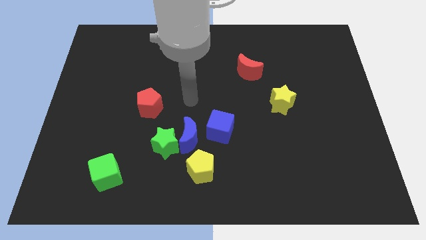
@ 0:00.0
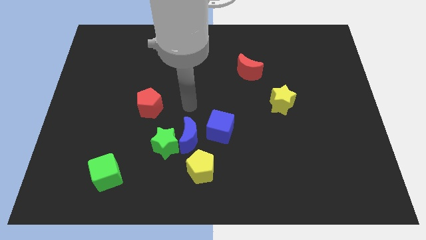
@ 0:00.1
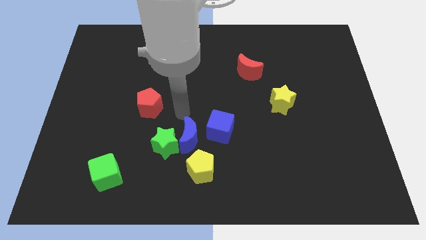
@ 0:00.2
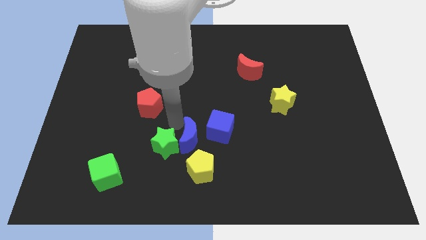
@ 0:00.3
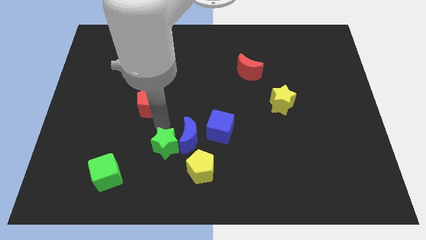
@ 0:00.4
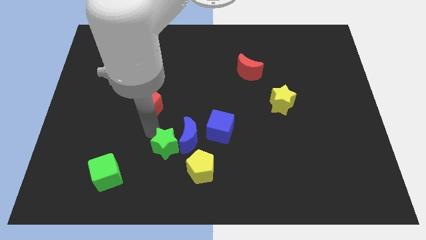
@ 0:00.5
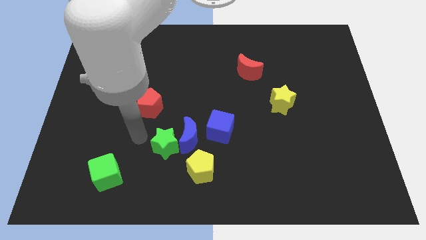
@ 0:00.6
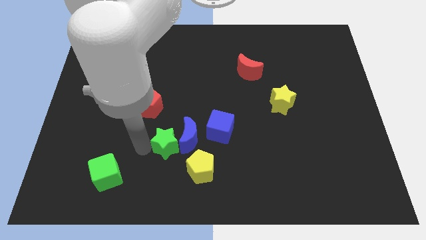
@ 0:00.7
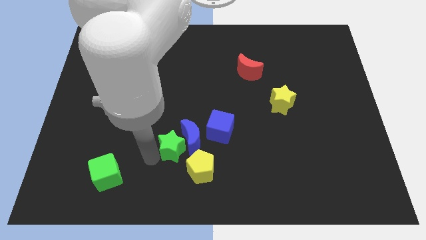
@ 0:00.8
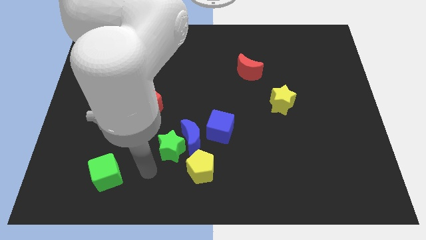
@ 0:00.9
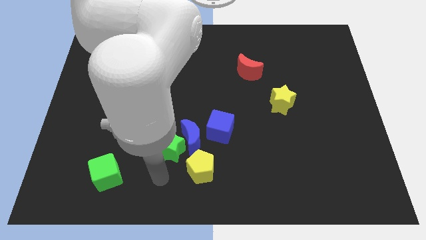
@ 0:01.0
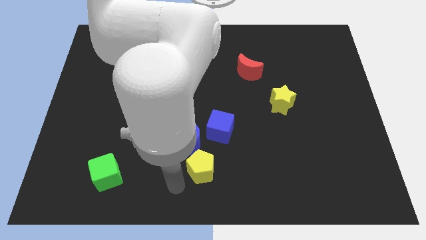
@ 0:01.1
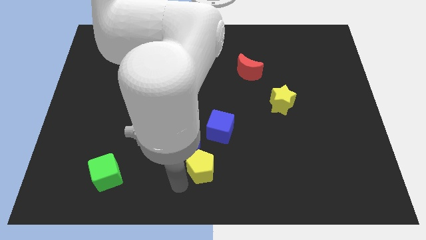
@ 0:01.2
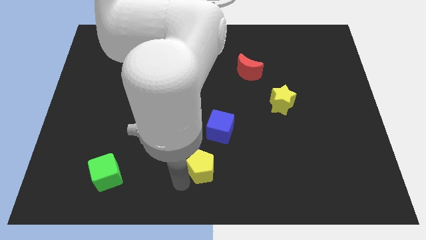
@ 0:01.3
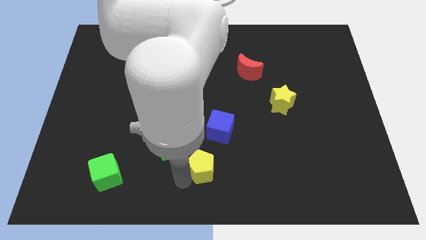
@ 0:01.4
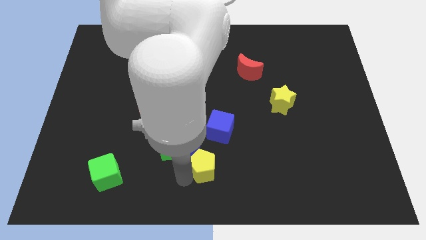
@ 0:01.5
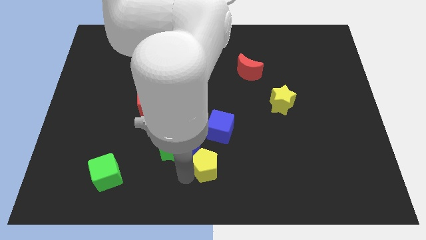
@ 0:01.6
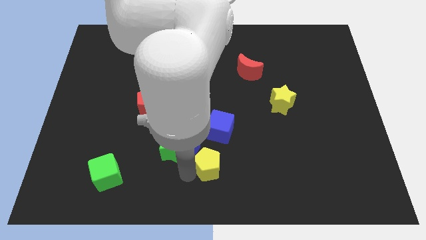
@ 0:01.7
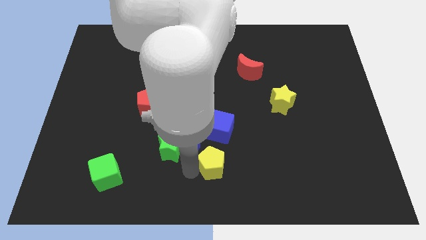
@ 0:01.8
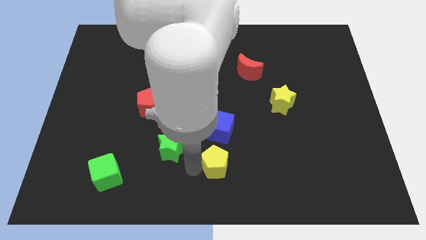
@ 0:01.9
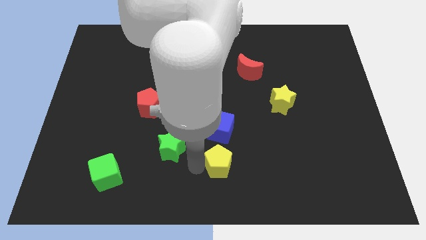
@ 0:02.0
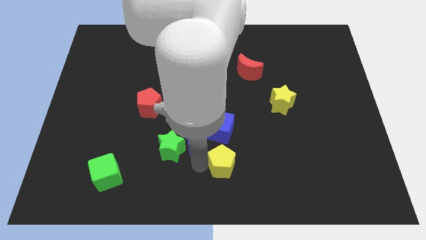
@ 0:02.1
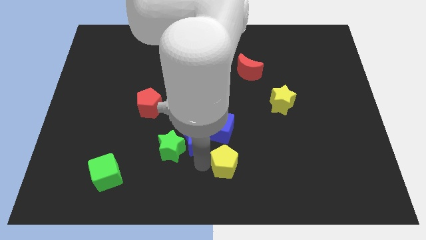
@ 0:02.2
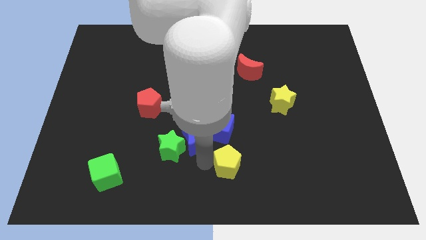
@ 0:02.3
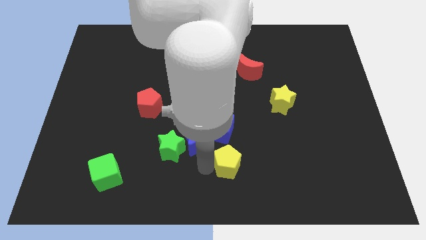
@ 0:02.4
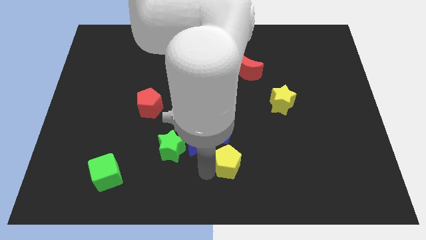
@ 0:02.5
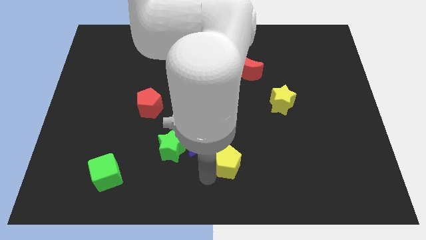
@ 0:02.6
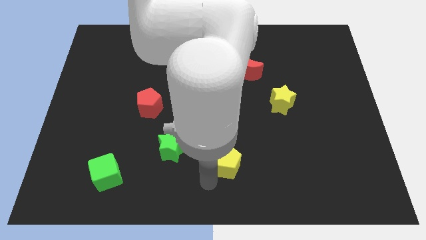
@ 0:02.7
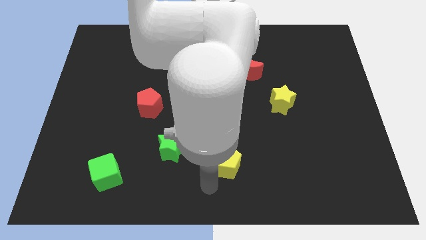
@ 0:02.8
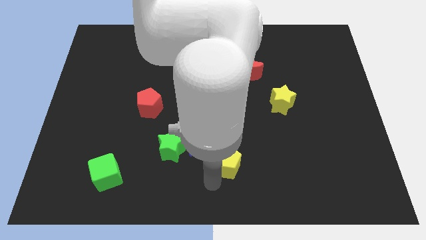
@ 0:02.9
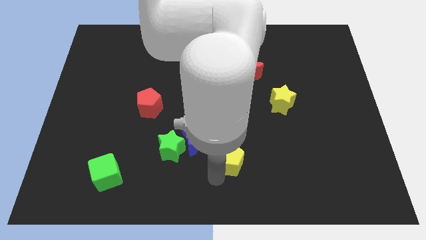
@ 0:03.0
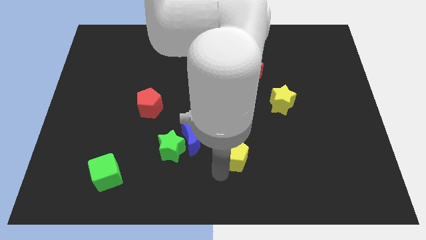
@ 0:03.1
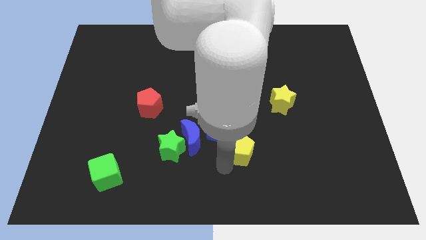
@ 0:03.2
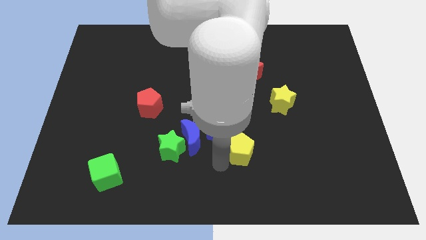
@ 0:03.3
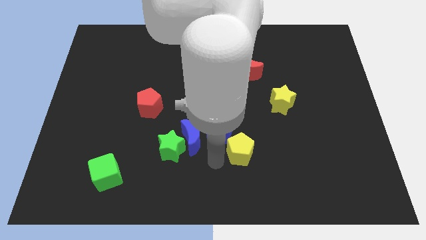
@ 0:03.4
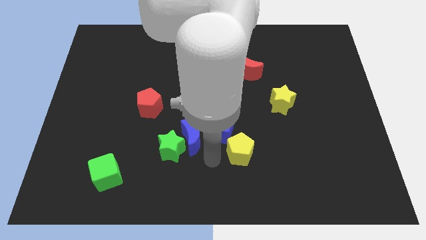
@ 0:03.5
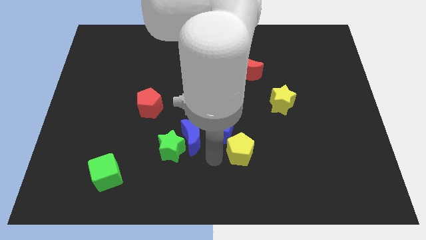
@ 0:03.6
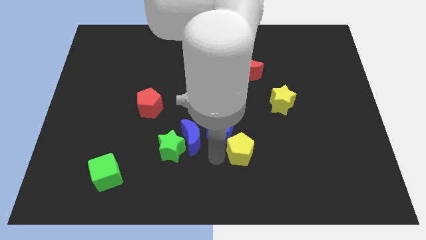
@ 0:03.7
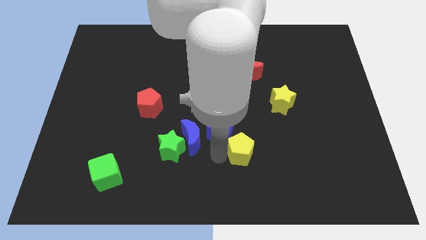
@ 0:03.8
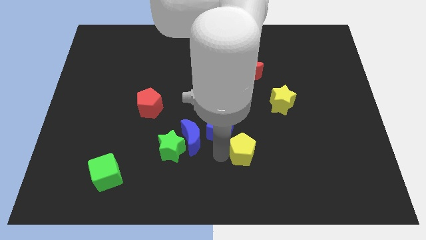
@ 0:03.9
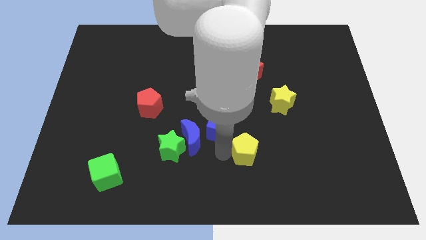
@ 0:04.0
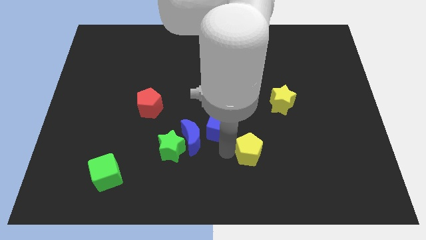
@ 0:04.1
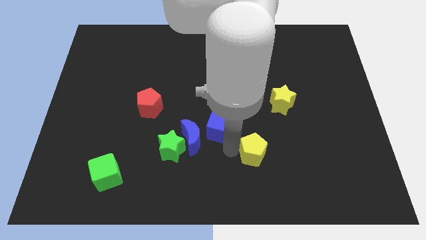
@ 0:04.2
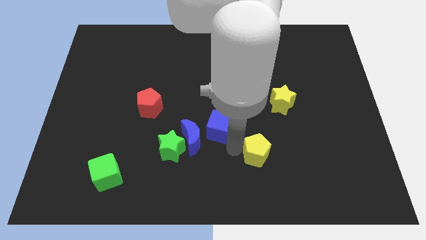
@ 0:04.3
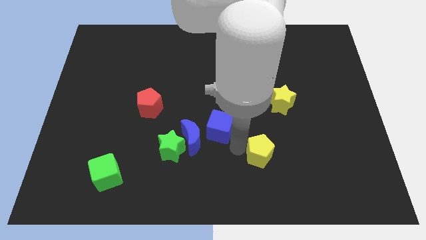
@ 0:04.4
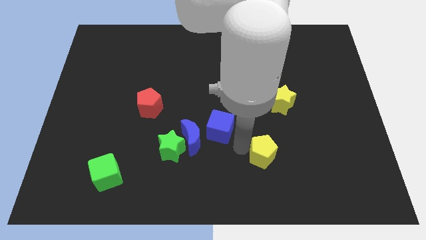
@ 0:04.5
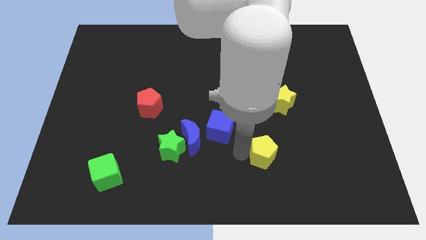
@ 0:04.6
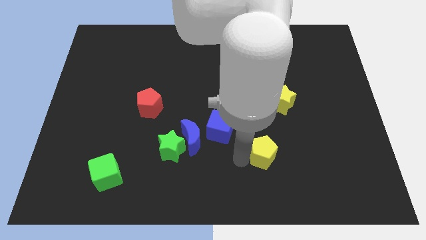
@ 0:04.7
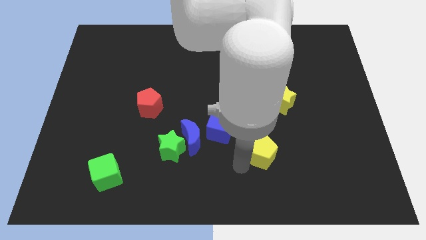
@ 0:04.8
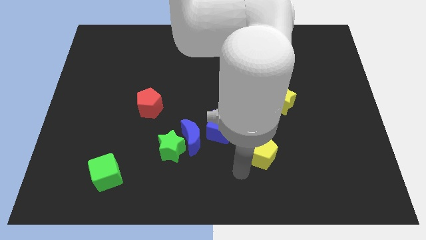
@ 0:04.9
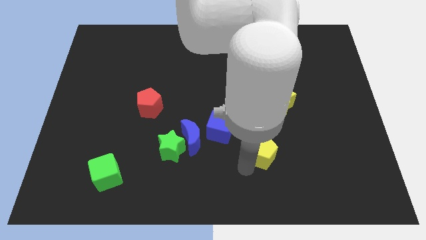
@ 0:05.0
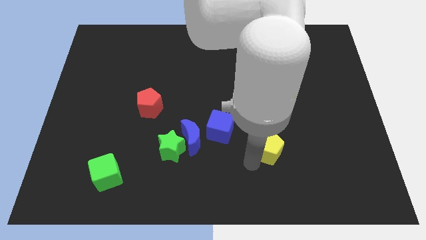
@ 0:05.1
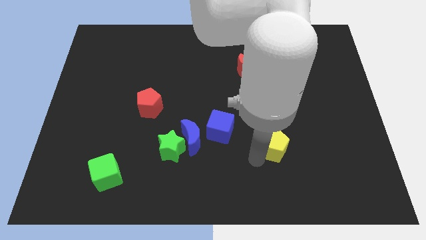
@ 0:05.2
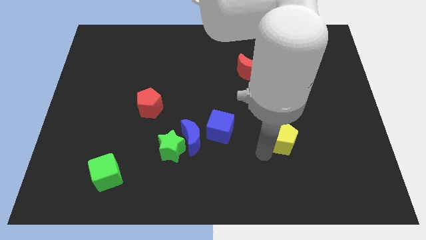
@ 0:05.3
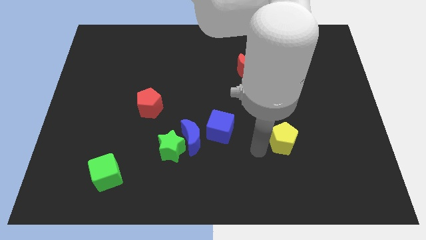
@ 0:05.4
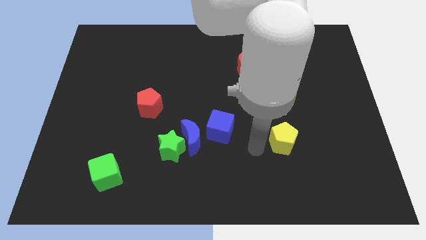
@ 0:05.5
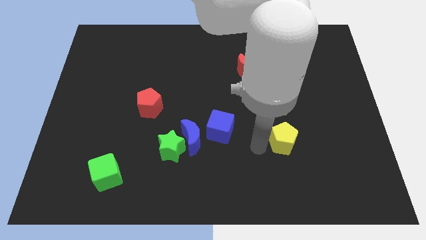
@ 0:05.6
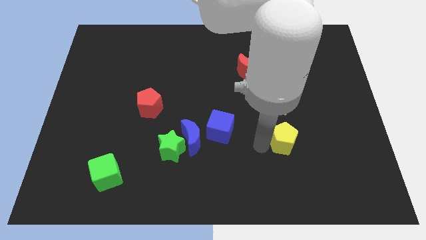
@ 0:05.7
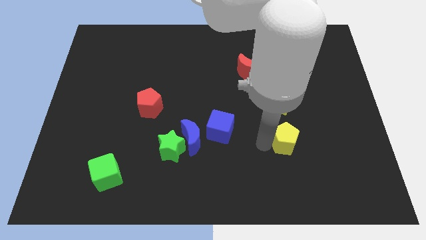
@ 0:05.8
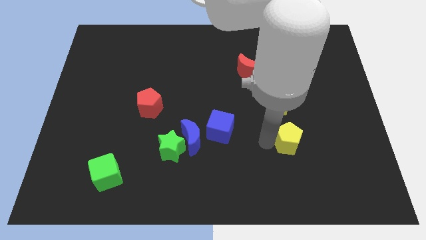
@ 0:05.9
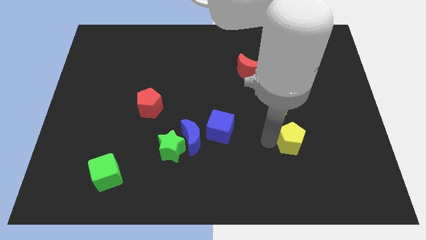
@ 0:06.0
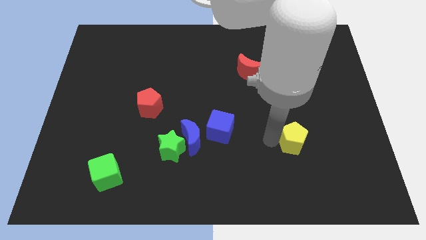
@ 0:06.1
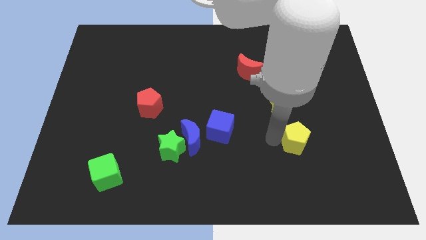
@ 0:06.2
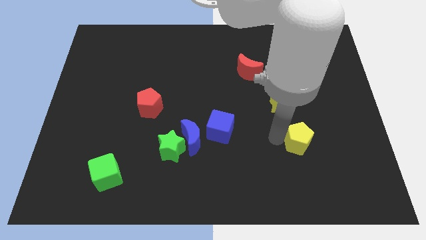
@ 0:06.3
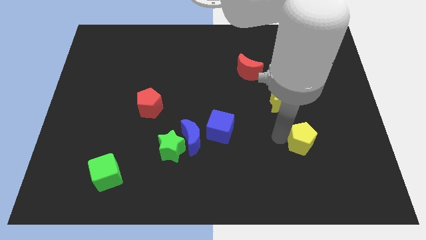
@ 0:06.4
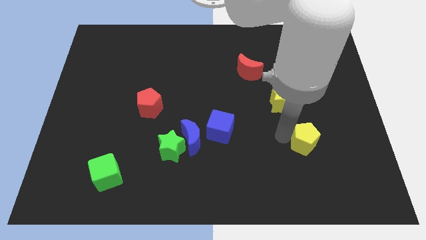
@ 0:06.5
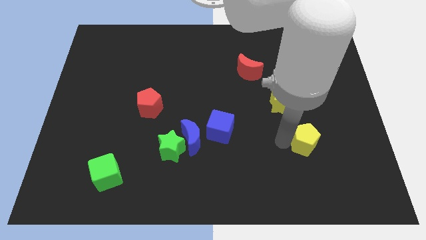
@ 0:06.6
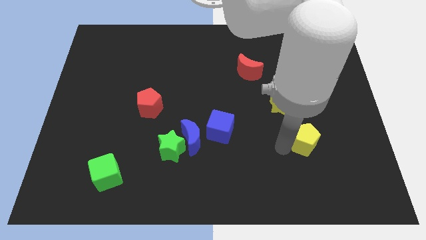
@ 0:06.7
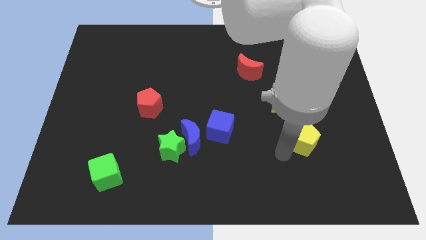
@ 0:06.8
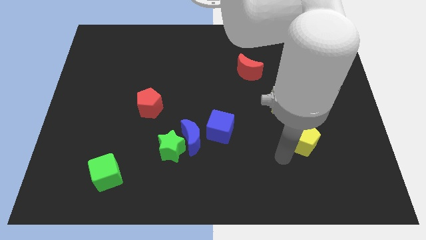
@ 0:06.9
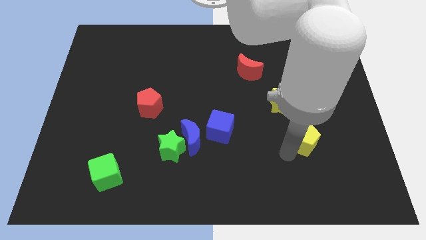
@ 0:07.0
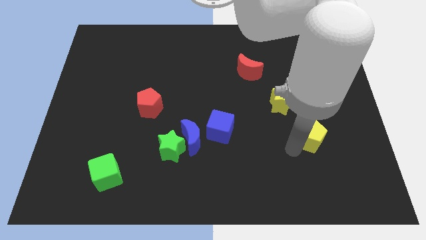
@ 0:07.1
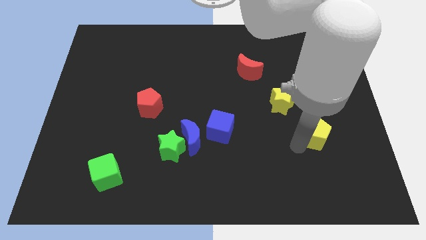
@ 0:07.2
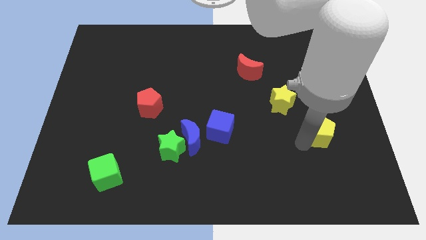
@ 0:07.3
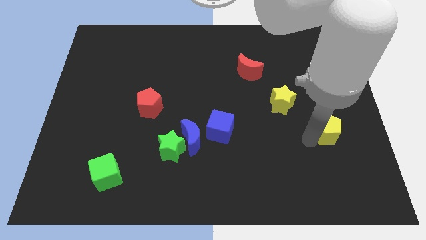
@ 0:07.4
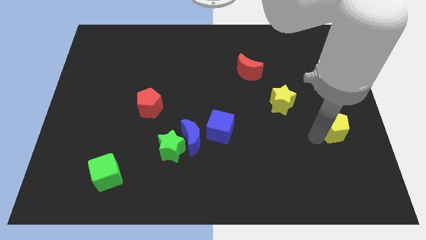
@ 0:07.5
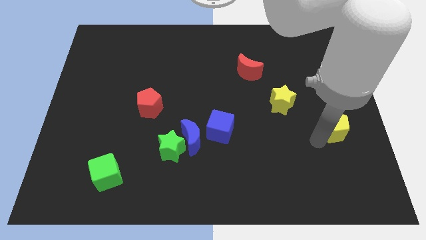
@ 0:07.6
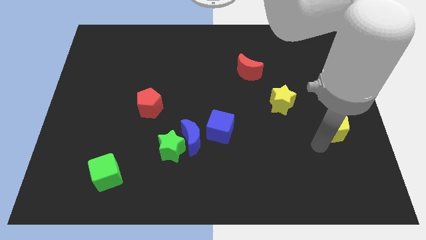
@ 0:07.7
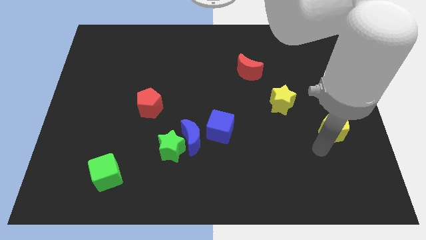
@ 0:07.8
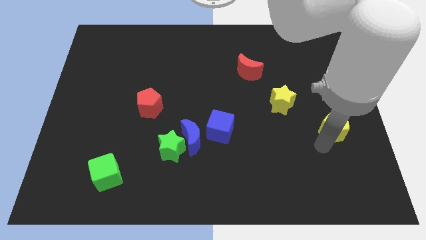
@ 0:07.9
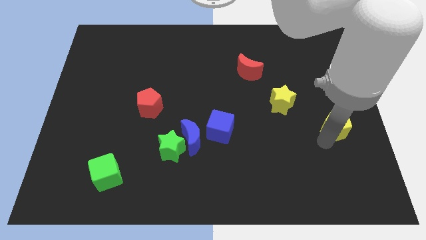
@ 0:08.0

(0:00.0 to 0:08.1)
put the yellow pentagon to the right side of the board
